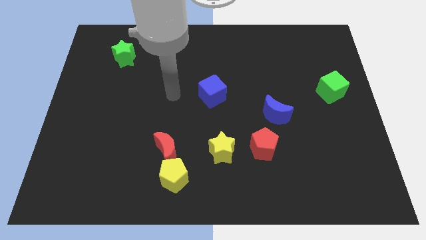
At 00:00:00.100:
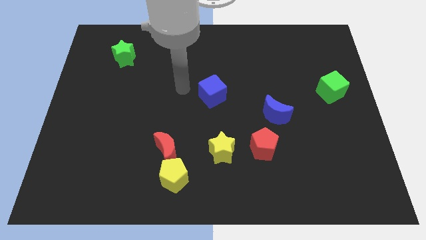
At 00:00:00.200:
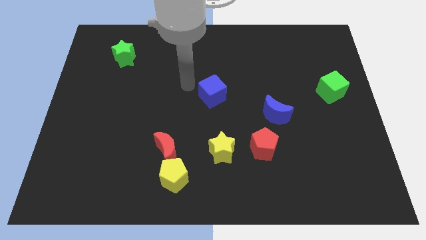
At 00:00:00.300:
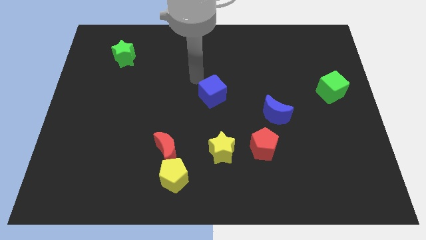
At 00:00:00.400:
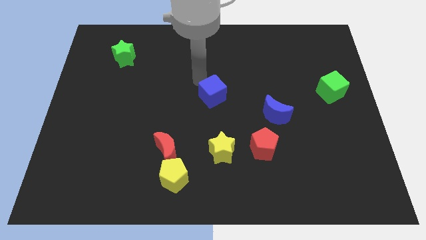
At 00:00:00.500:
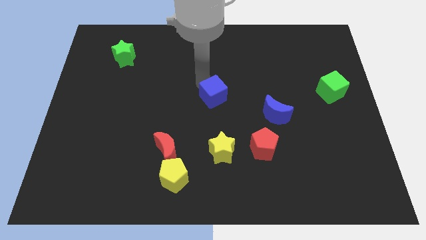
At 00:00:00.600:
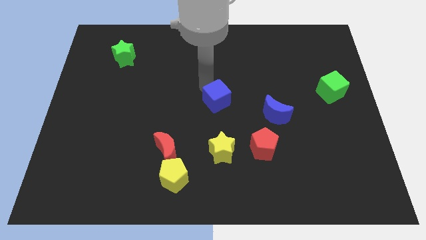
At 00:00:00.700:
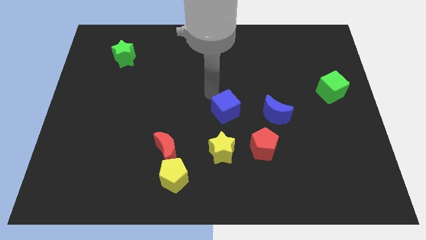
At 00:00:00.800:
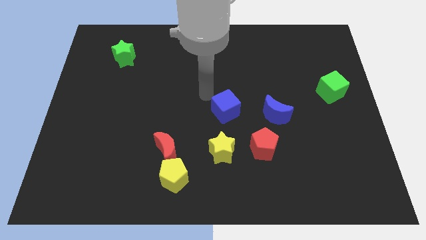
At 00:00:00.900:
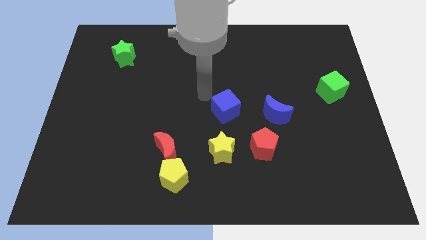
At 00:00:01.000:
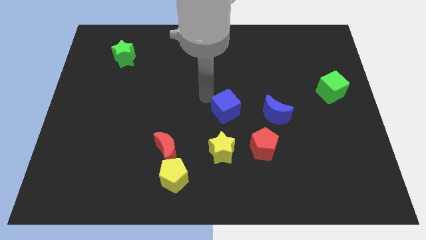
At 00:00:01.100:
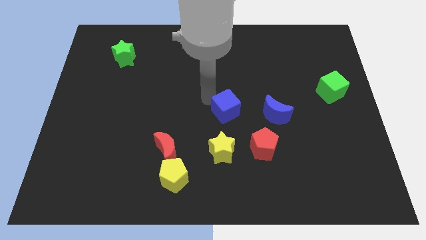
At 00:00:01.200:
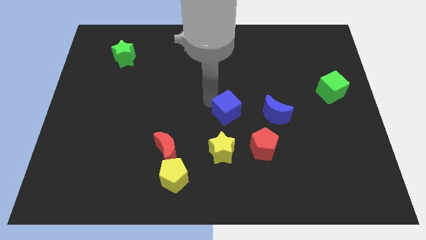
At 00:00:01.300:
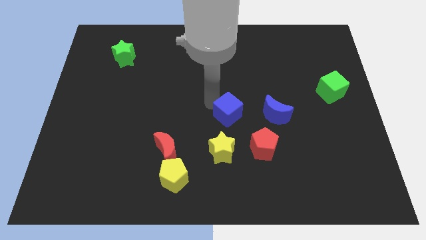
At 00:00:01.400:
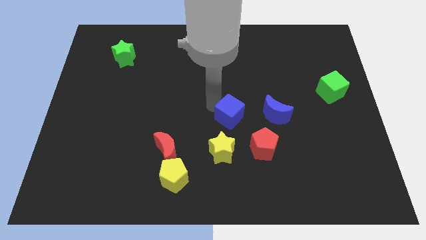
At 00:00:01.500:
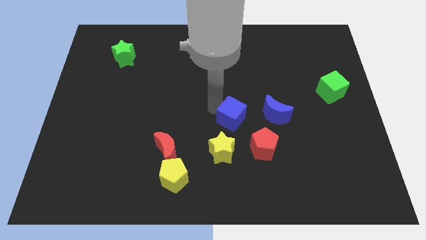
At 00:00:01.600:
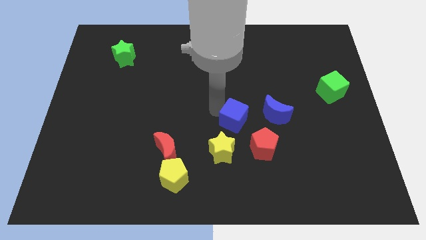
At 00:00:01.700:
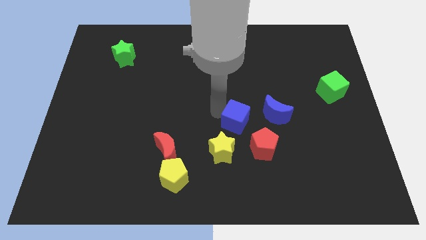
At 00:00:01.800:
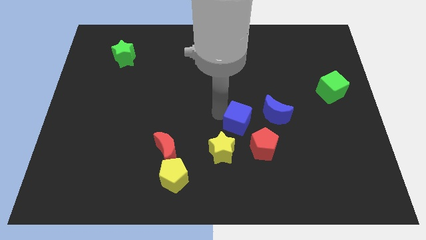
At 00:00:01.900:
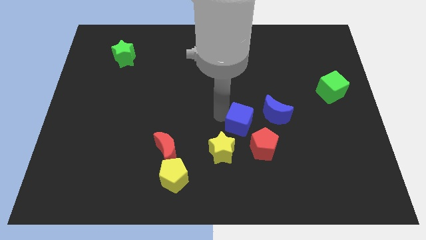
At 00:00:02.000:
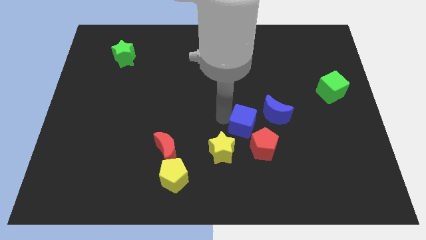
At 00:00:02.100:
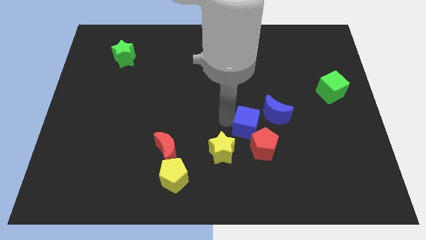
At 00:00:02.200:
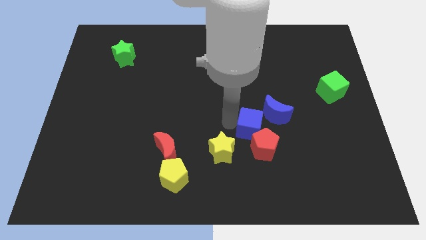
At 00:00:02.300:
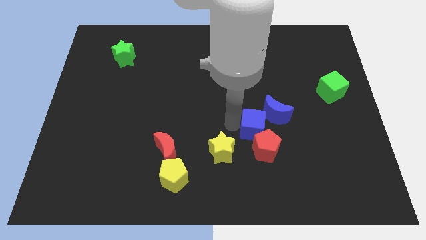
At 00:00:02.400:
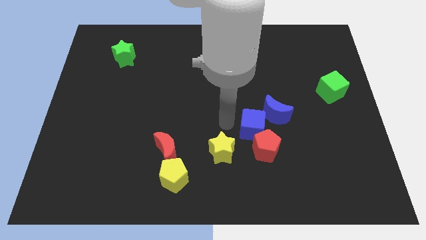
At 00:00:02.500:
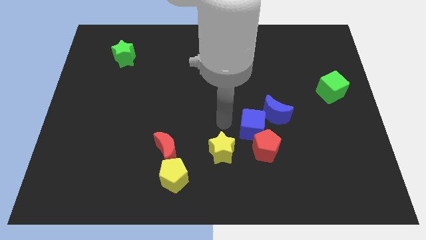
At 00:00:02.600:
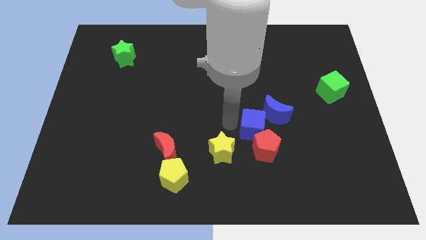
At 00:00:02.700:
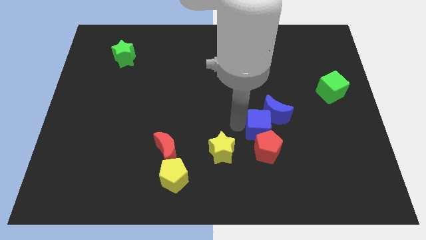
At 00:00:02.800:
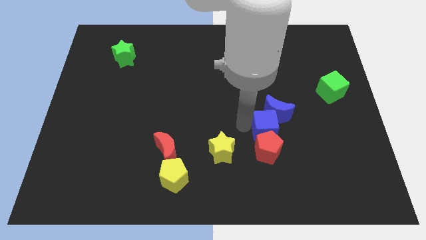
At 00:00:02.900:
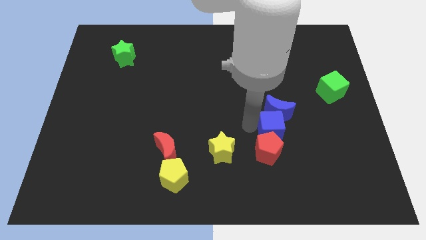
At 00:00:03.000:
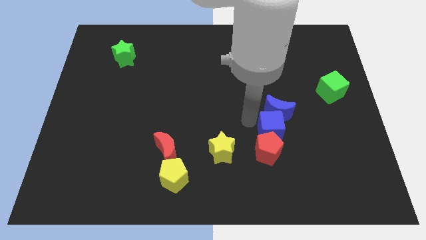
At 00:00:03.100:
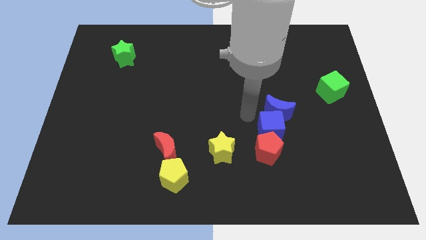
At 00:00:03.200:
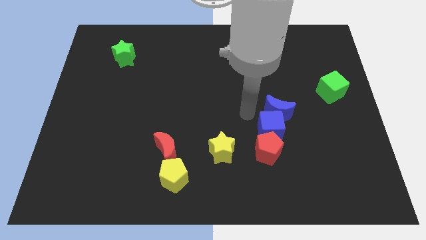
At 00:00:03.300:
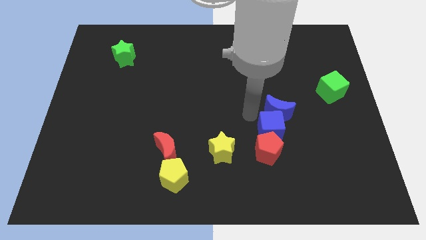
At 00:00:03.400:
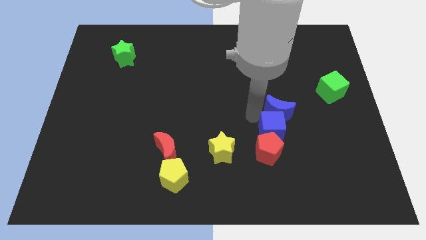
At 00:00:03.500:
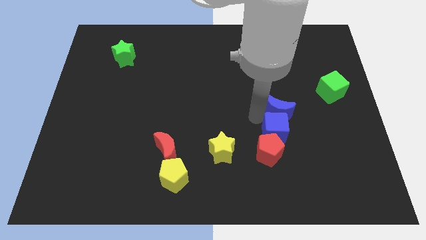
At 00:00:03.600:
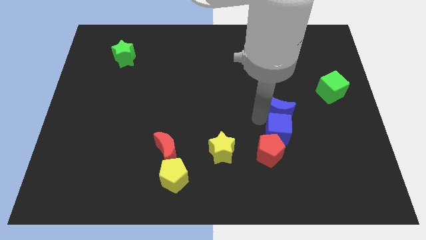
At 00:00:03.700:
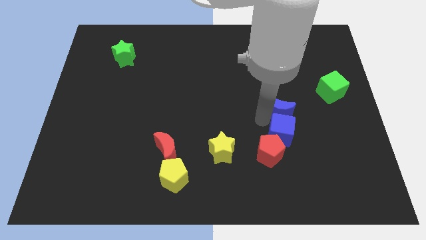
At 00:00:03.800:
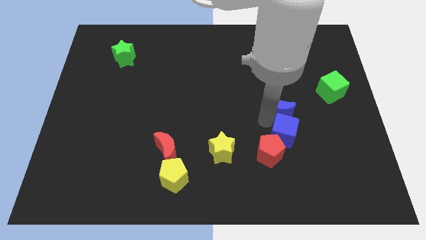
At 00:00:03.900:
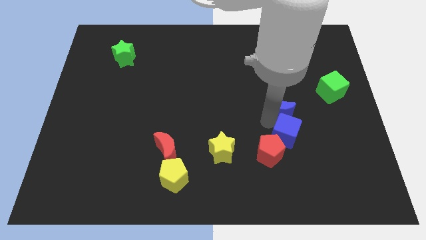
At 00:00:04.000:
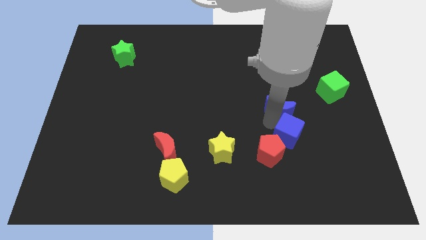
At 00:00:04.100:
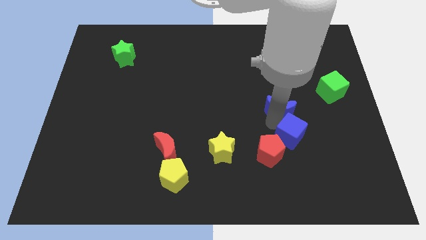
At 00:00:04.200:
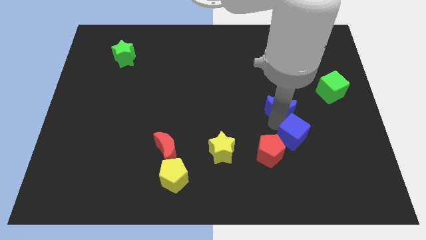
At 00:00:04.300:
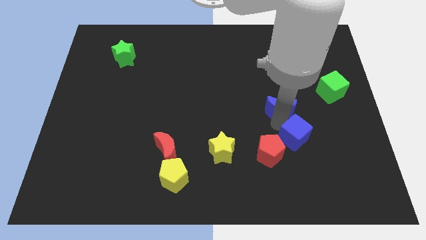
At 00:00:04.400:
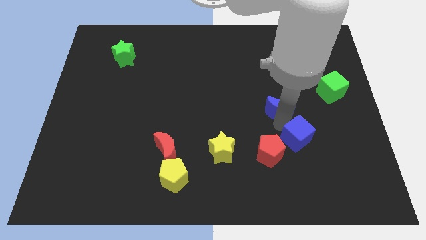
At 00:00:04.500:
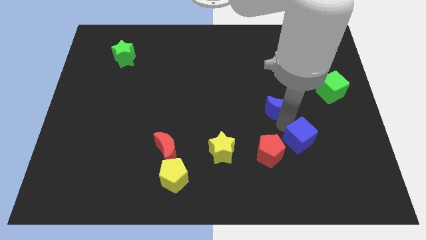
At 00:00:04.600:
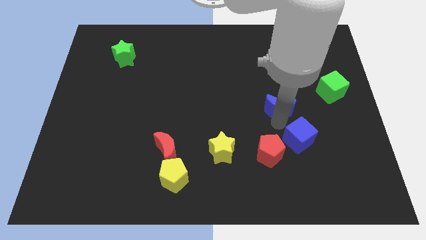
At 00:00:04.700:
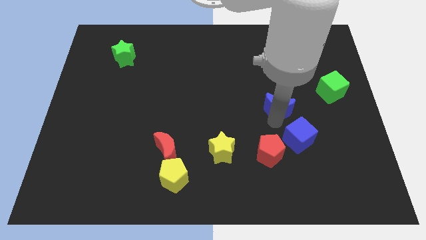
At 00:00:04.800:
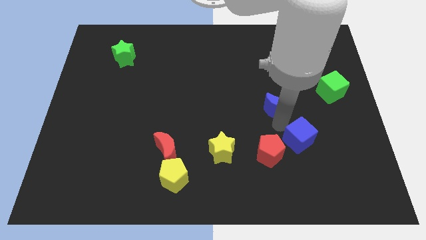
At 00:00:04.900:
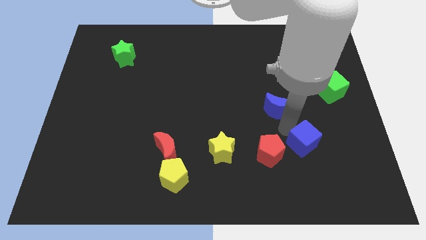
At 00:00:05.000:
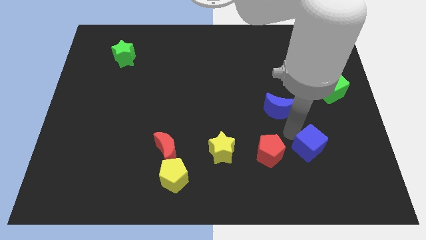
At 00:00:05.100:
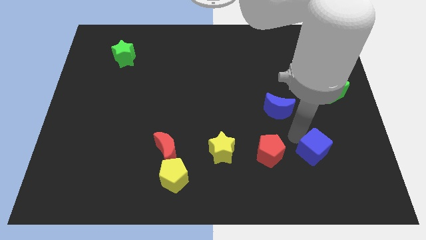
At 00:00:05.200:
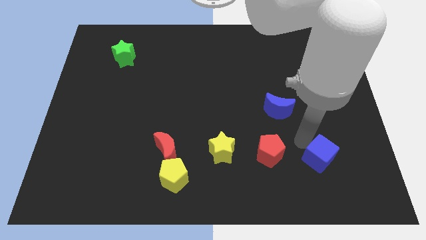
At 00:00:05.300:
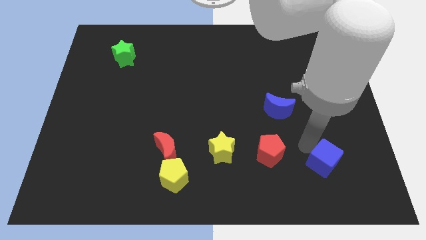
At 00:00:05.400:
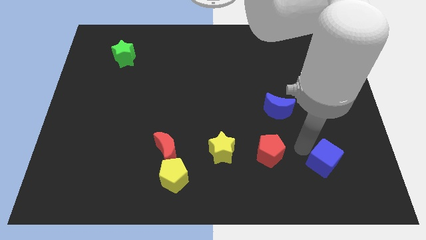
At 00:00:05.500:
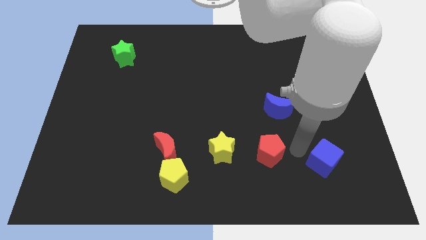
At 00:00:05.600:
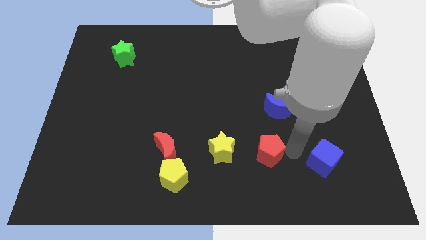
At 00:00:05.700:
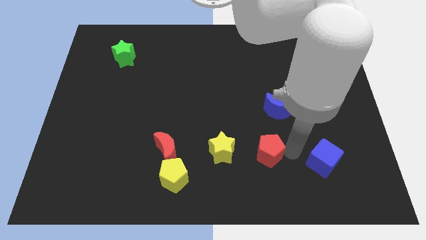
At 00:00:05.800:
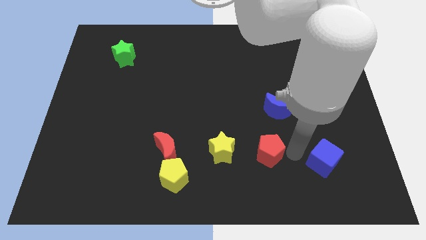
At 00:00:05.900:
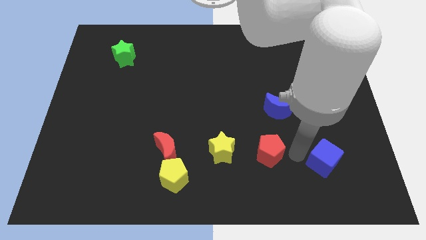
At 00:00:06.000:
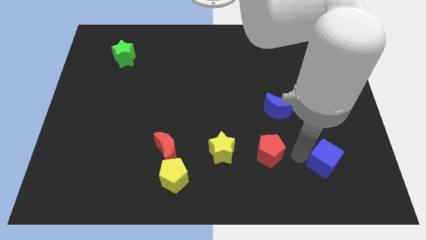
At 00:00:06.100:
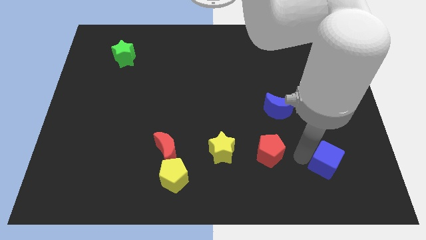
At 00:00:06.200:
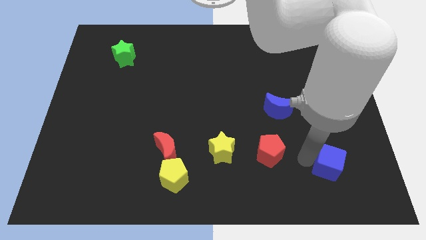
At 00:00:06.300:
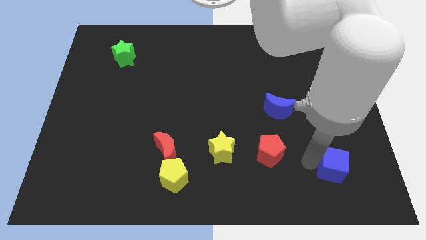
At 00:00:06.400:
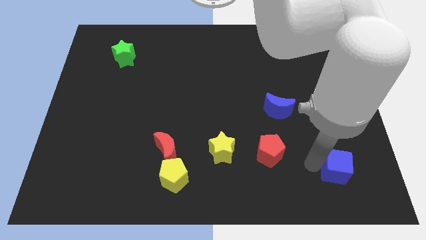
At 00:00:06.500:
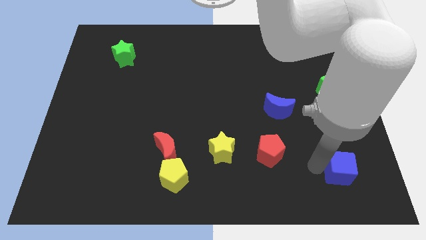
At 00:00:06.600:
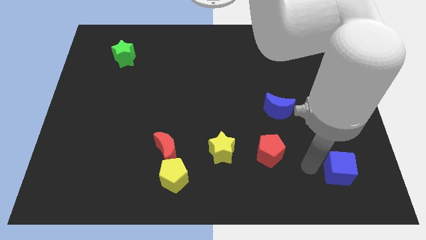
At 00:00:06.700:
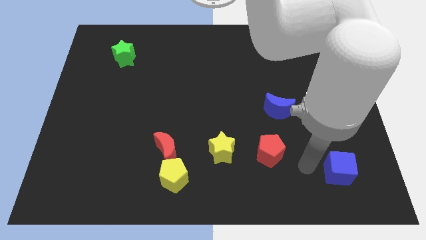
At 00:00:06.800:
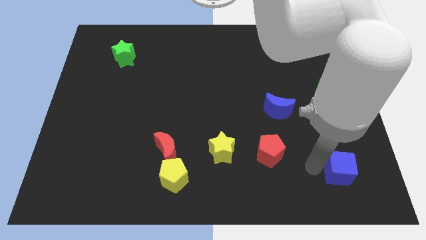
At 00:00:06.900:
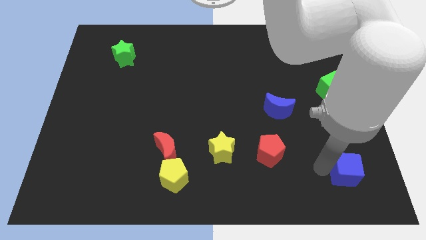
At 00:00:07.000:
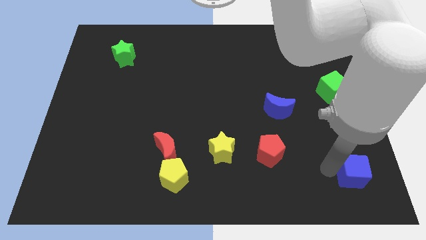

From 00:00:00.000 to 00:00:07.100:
push the blue cube to the bottom right
